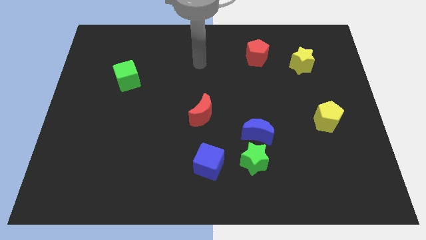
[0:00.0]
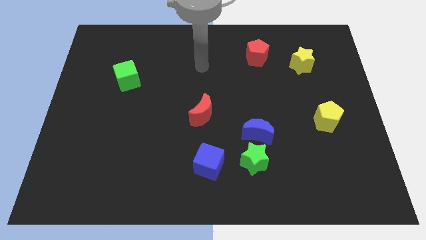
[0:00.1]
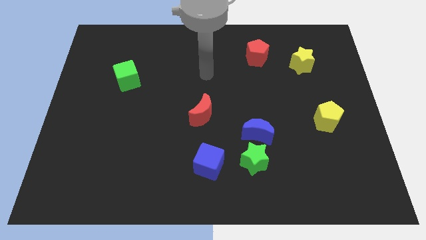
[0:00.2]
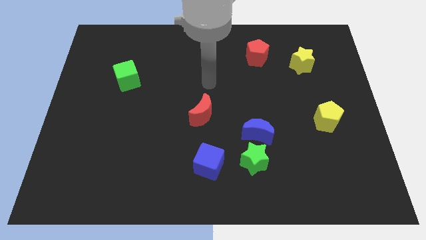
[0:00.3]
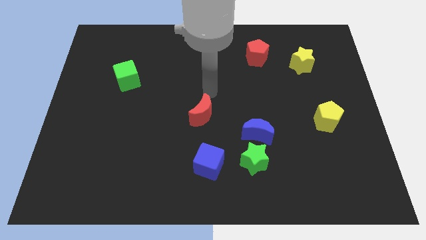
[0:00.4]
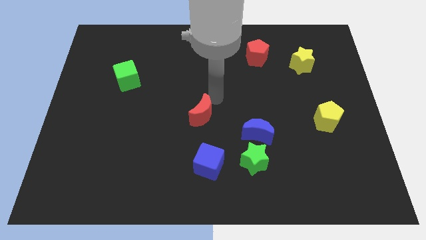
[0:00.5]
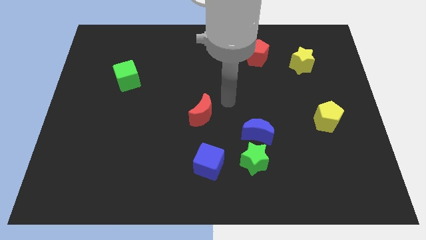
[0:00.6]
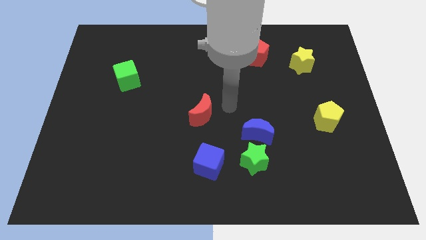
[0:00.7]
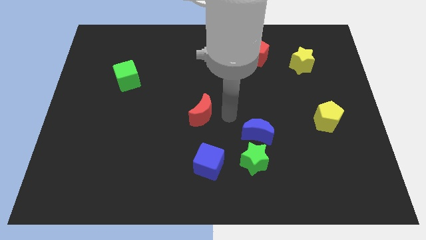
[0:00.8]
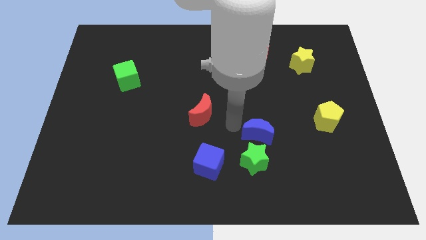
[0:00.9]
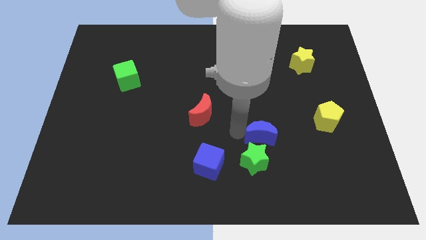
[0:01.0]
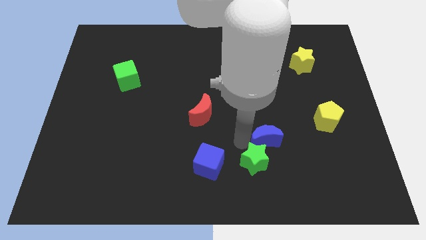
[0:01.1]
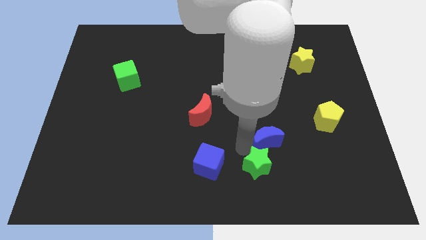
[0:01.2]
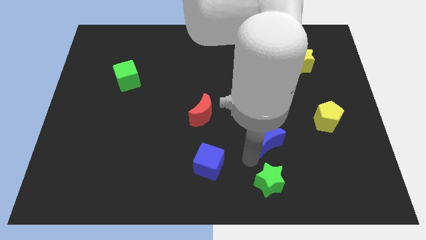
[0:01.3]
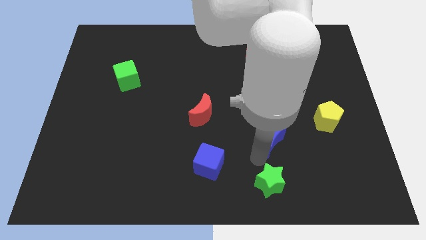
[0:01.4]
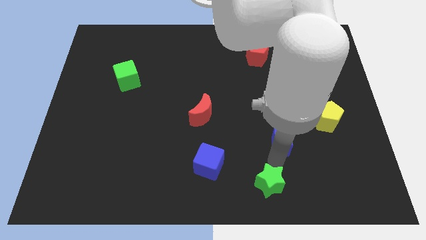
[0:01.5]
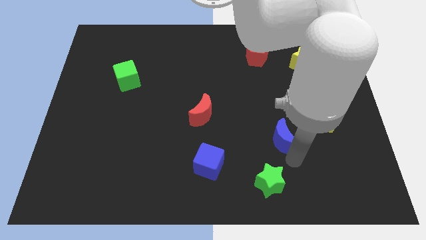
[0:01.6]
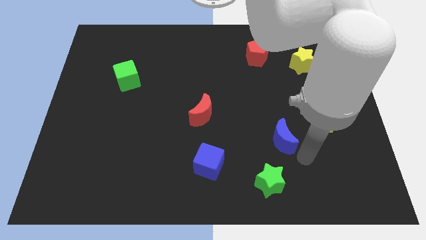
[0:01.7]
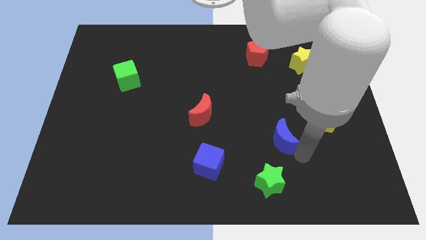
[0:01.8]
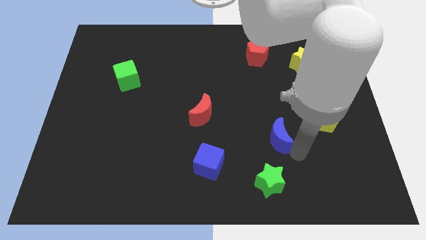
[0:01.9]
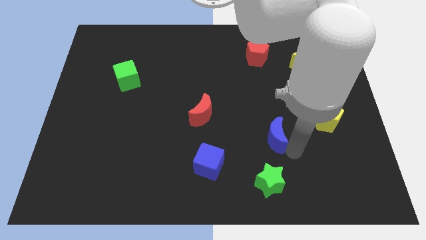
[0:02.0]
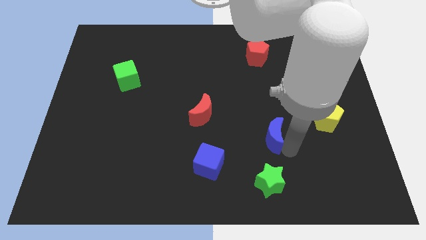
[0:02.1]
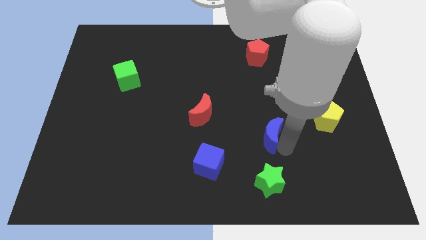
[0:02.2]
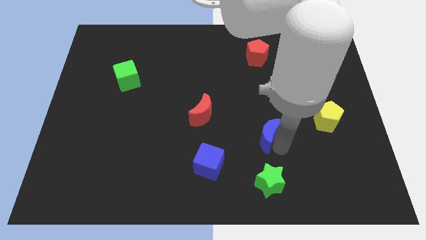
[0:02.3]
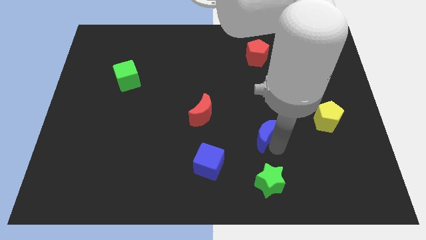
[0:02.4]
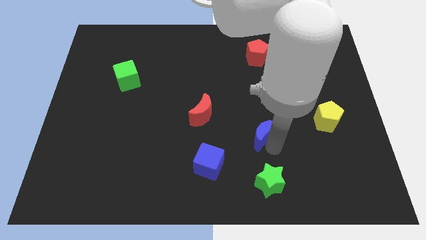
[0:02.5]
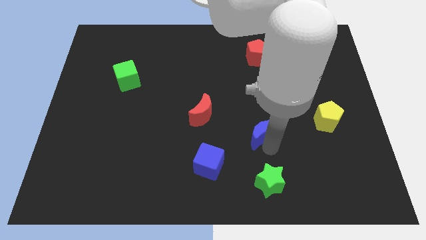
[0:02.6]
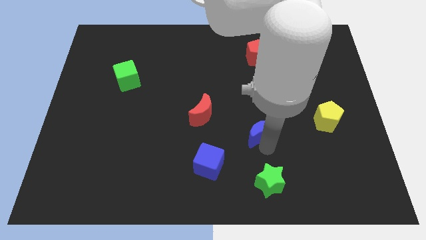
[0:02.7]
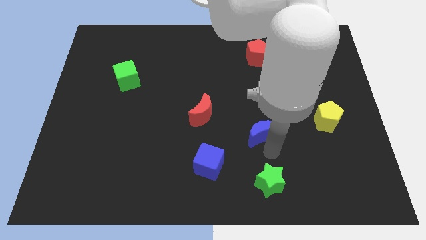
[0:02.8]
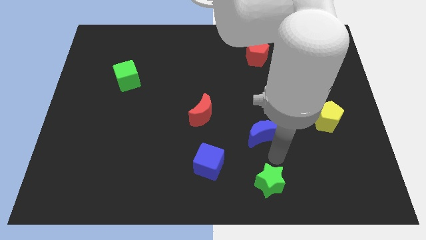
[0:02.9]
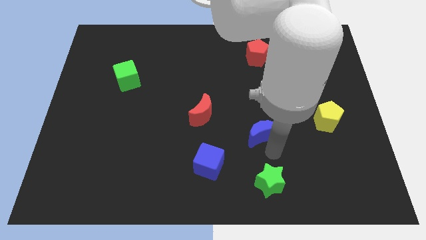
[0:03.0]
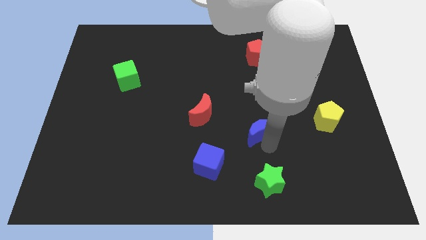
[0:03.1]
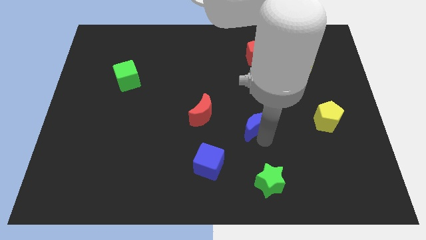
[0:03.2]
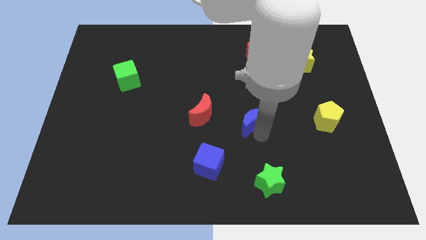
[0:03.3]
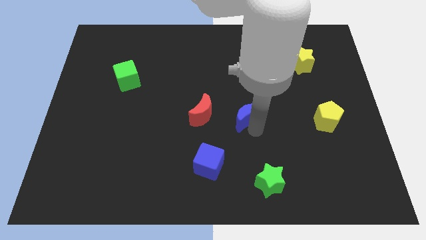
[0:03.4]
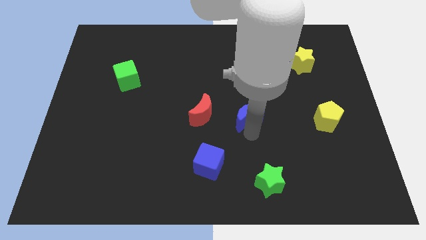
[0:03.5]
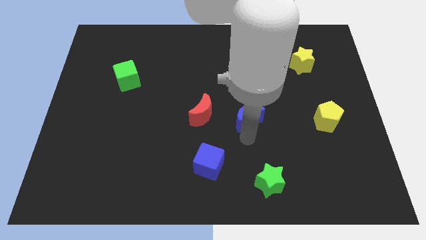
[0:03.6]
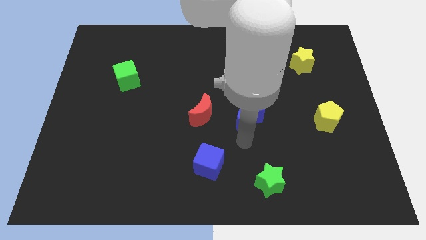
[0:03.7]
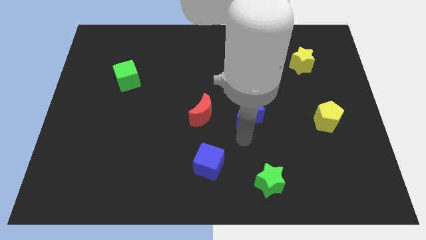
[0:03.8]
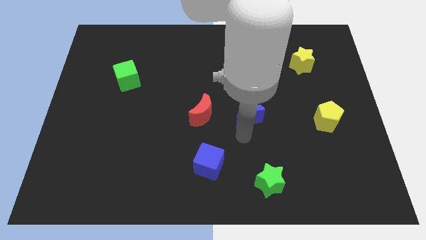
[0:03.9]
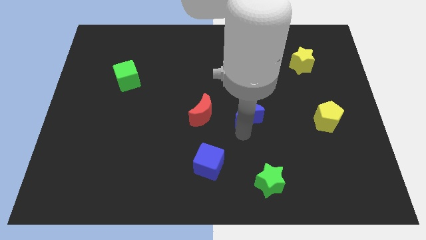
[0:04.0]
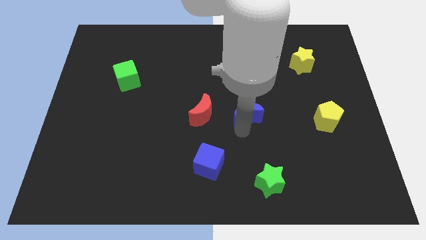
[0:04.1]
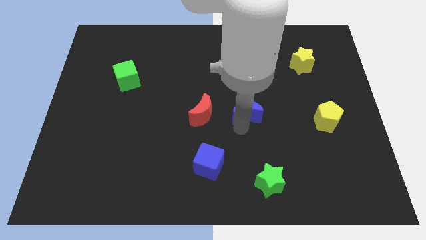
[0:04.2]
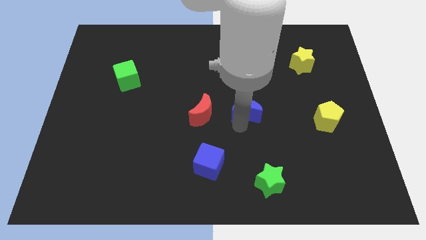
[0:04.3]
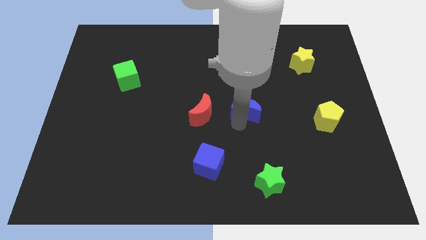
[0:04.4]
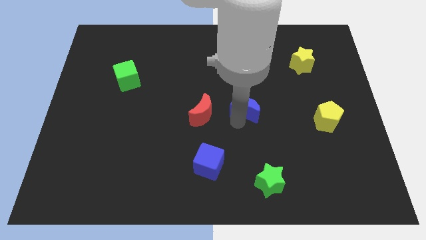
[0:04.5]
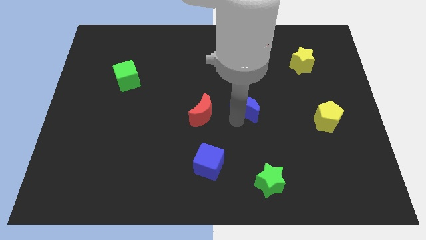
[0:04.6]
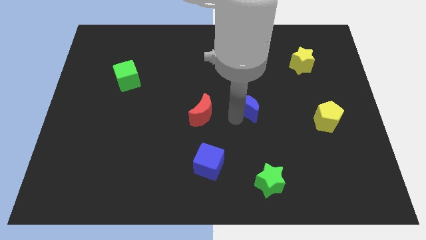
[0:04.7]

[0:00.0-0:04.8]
slightly slide the blue moon up

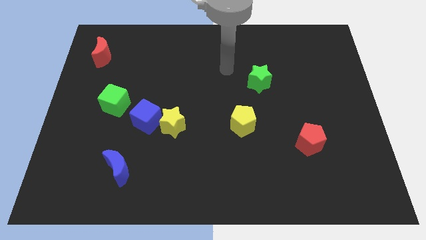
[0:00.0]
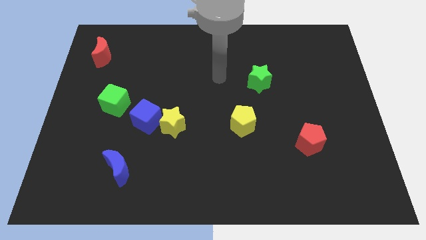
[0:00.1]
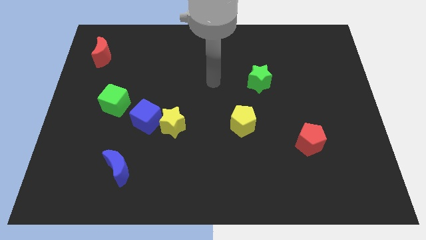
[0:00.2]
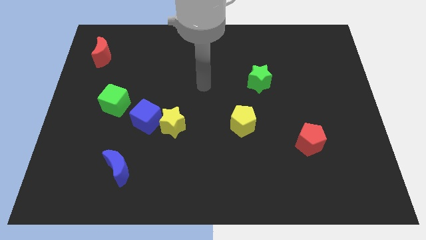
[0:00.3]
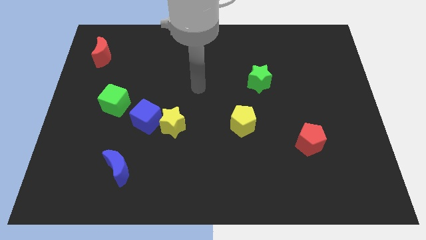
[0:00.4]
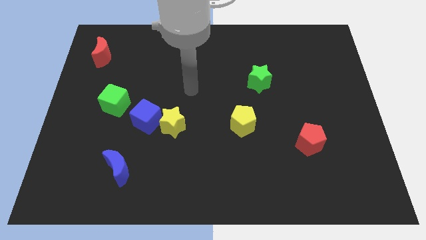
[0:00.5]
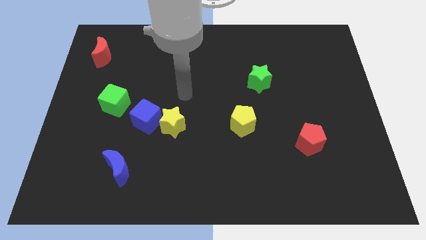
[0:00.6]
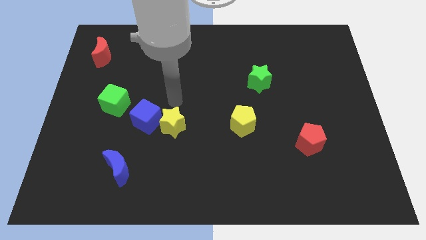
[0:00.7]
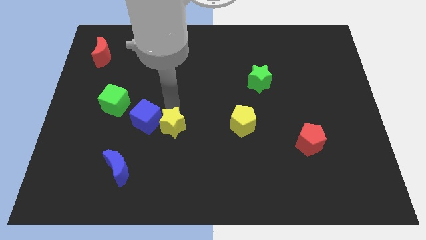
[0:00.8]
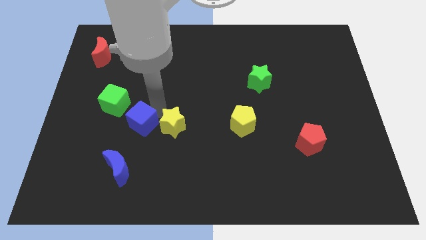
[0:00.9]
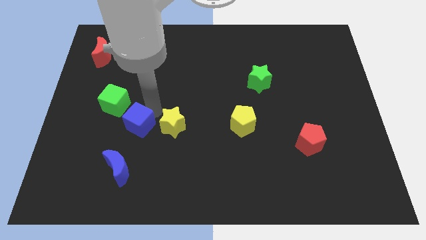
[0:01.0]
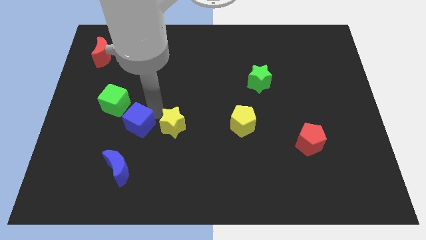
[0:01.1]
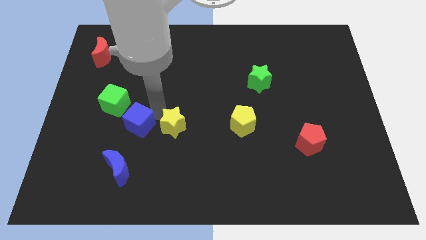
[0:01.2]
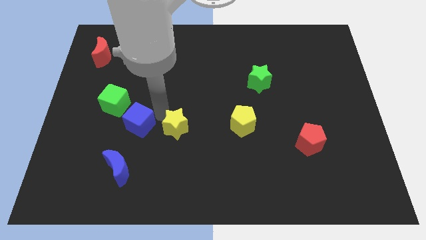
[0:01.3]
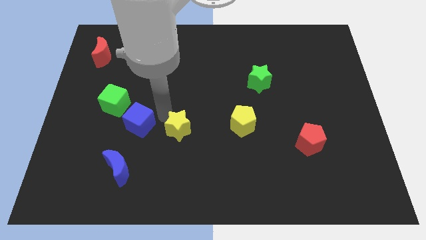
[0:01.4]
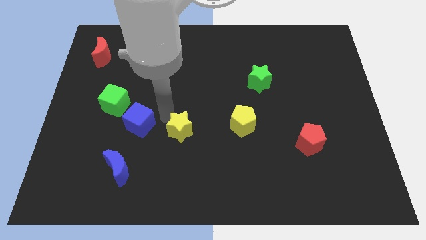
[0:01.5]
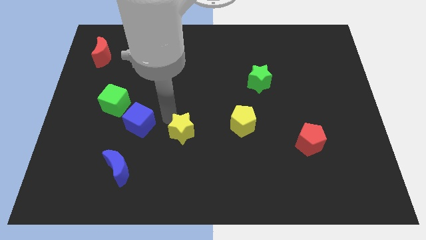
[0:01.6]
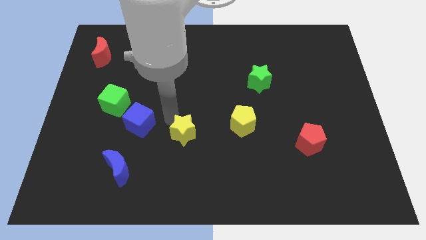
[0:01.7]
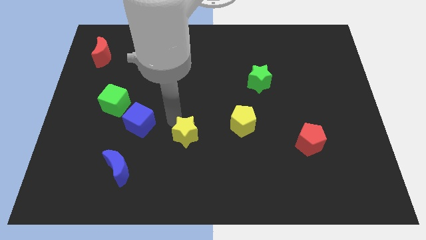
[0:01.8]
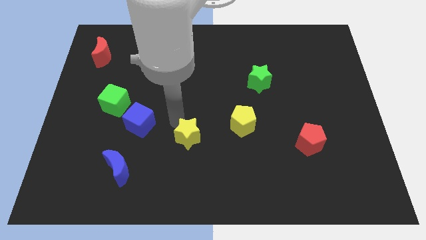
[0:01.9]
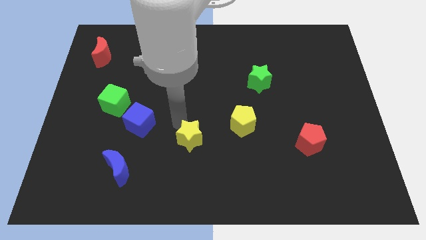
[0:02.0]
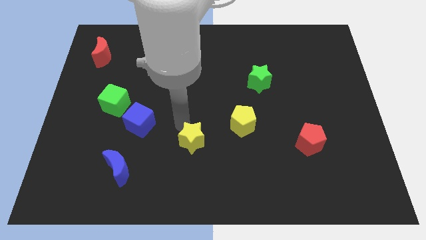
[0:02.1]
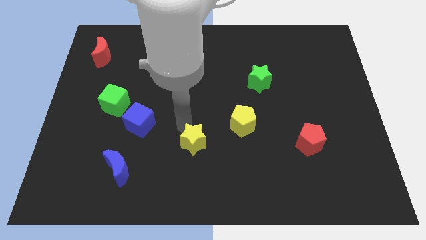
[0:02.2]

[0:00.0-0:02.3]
push the yellow star a little downwards and then to the right

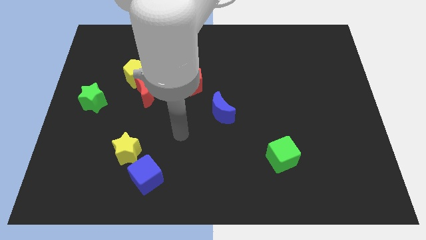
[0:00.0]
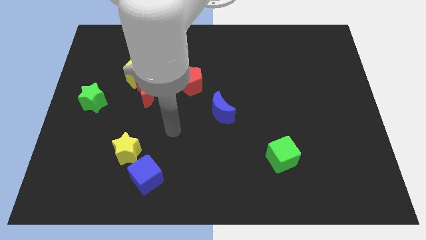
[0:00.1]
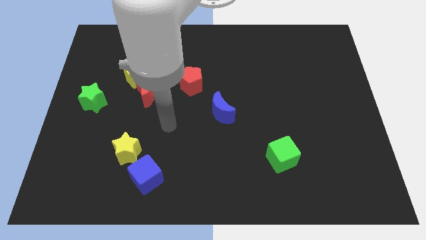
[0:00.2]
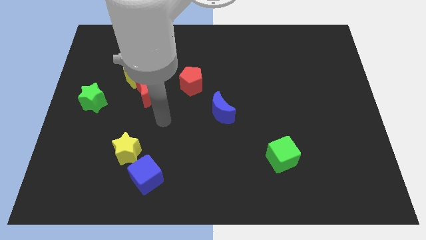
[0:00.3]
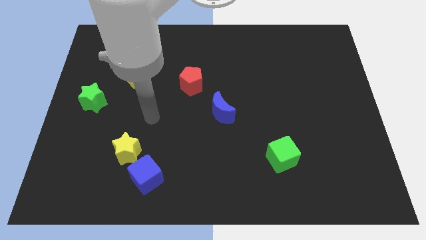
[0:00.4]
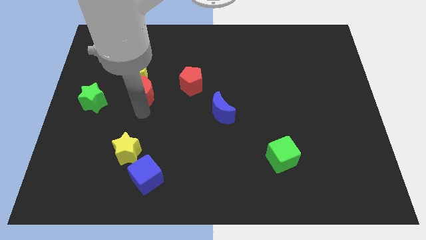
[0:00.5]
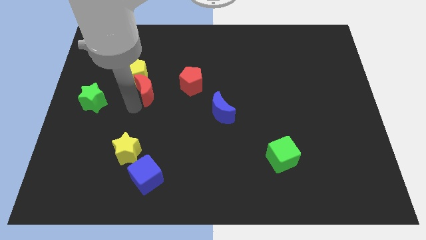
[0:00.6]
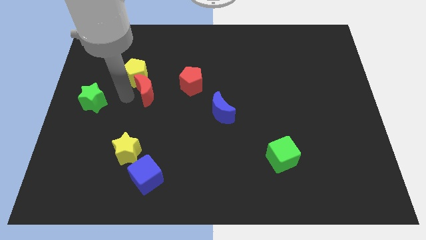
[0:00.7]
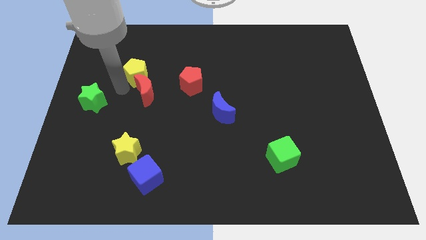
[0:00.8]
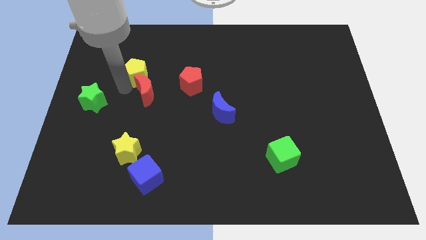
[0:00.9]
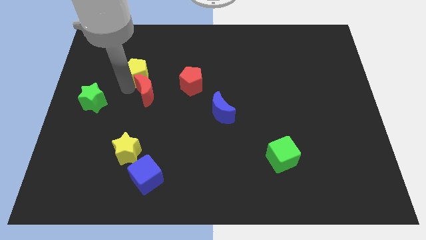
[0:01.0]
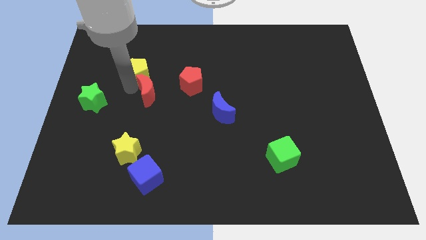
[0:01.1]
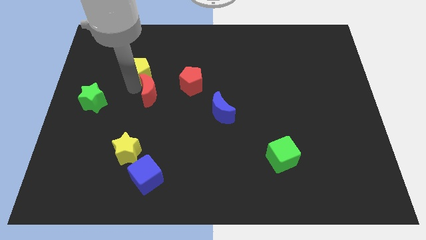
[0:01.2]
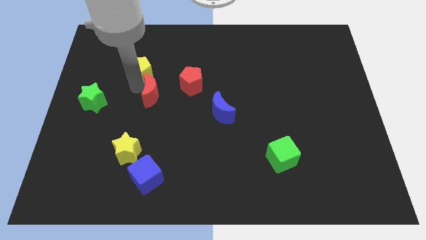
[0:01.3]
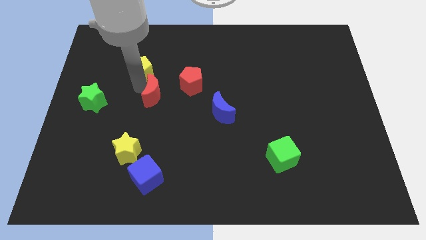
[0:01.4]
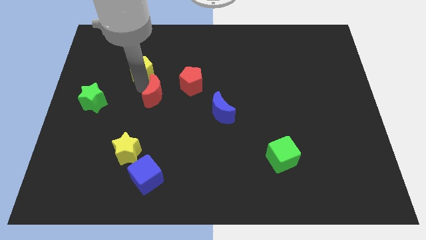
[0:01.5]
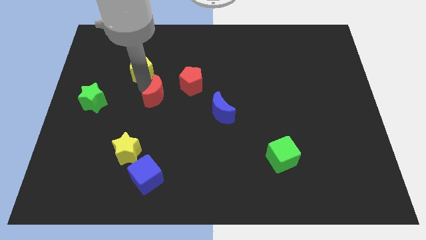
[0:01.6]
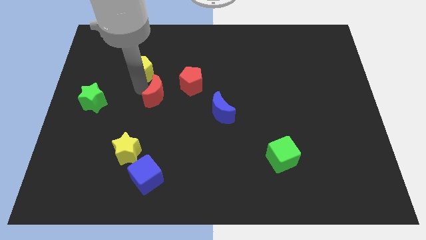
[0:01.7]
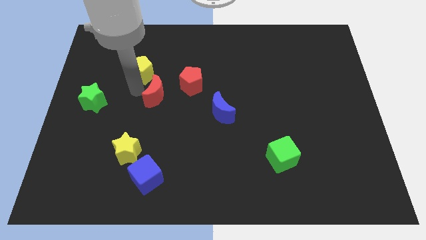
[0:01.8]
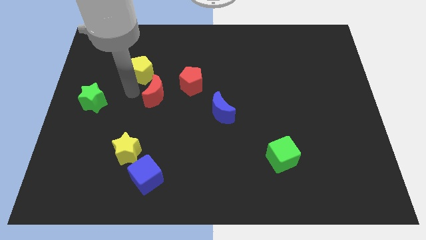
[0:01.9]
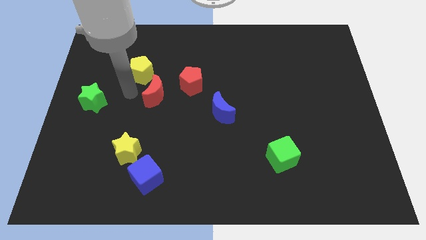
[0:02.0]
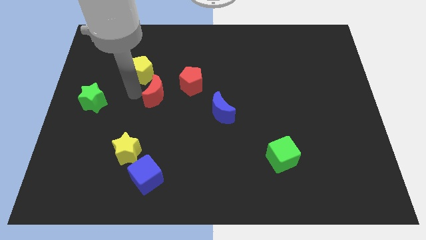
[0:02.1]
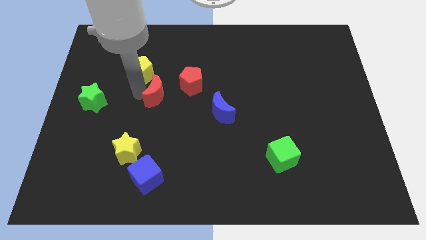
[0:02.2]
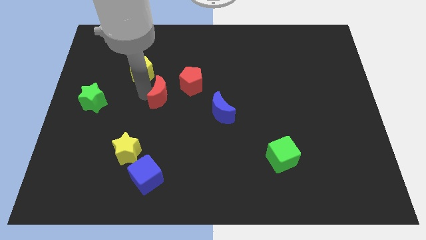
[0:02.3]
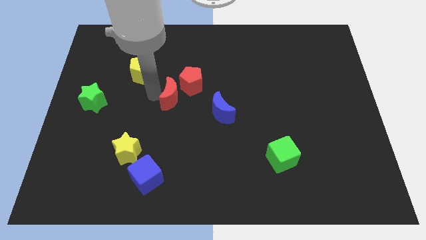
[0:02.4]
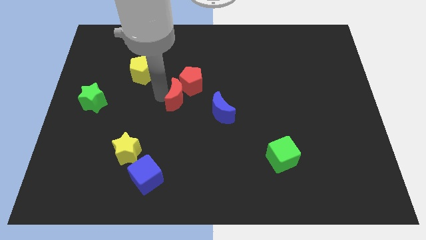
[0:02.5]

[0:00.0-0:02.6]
slightly move the red moon to the right
